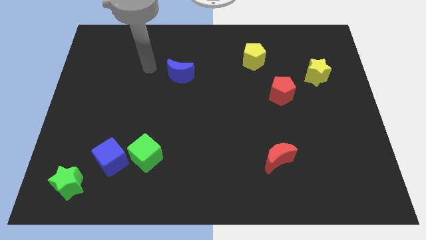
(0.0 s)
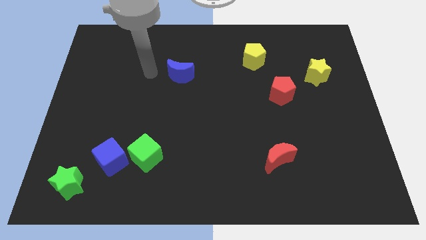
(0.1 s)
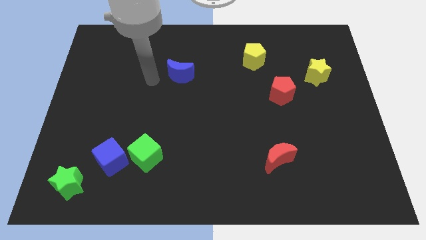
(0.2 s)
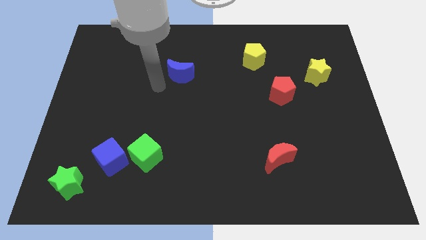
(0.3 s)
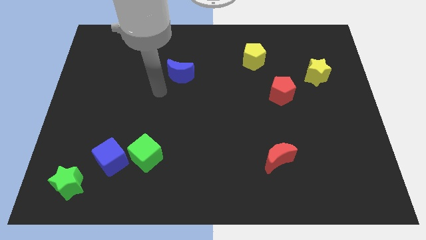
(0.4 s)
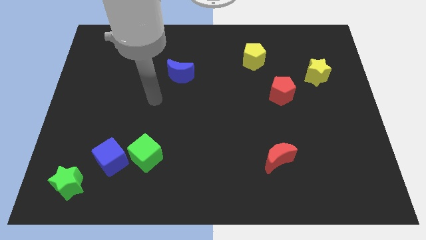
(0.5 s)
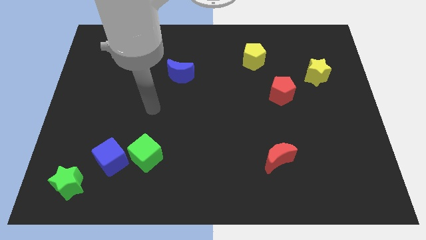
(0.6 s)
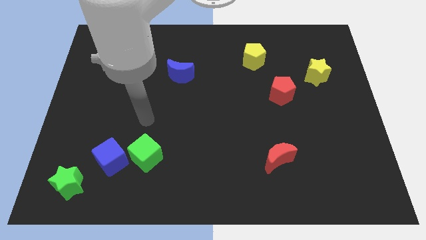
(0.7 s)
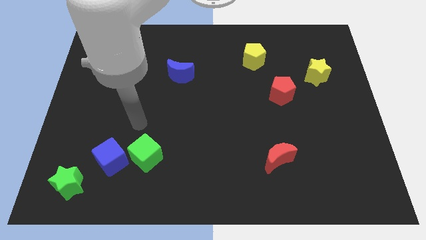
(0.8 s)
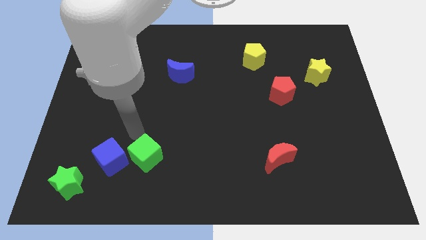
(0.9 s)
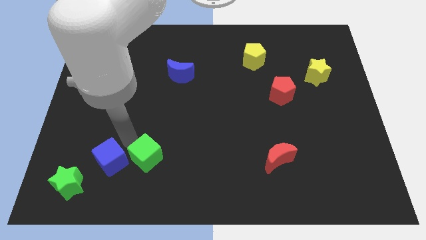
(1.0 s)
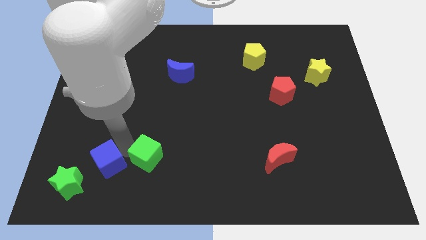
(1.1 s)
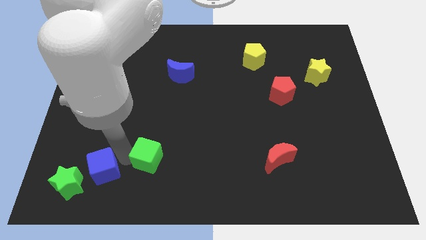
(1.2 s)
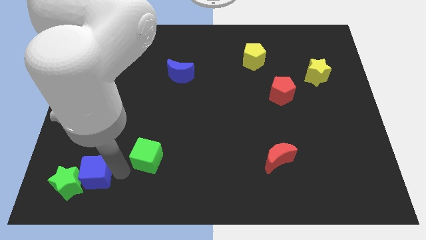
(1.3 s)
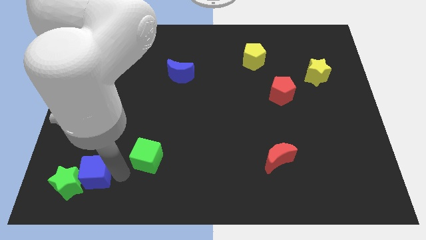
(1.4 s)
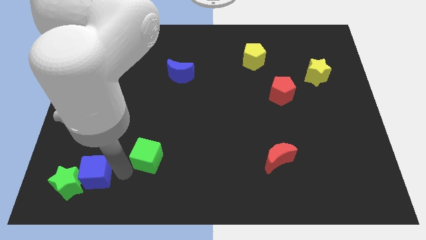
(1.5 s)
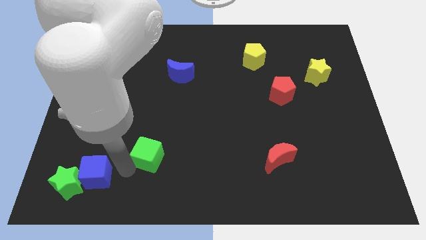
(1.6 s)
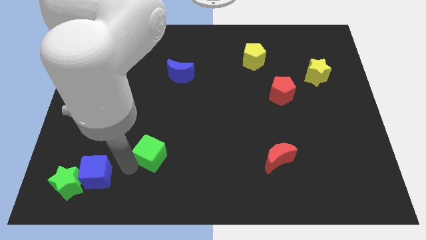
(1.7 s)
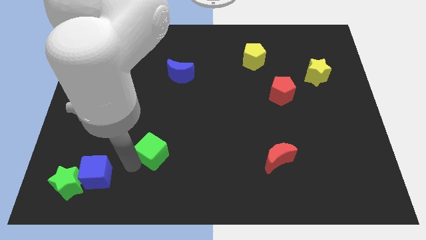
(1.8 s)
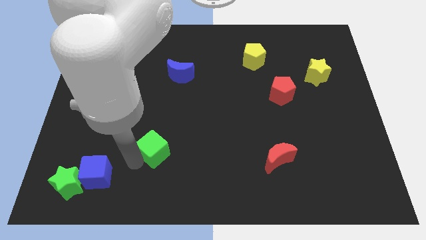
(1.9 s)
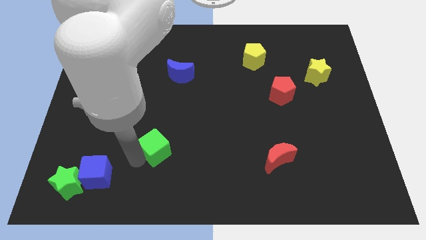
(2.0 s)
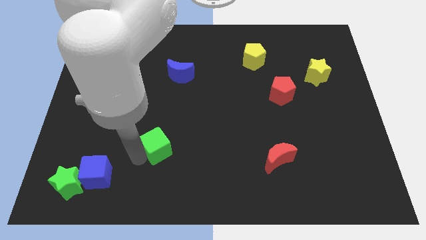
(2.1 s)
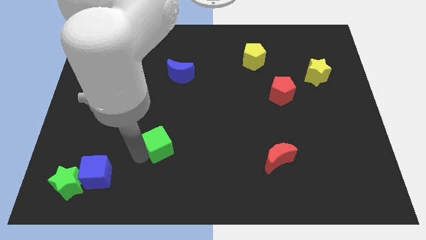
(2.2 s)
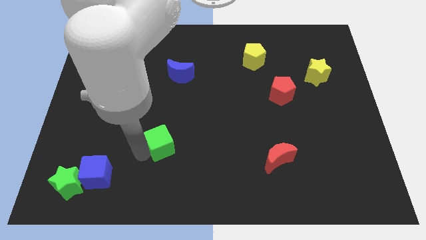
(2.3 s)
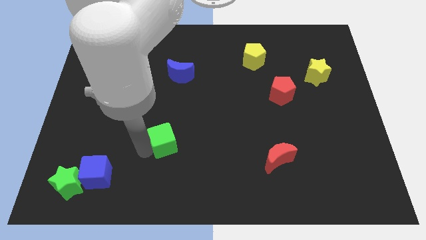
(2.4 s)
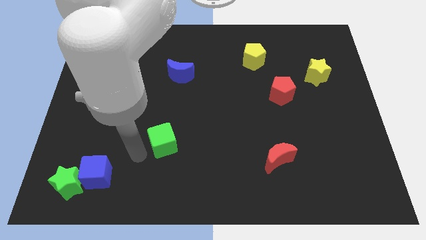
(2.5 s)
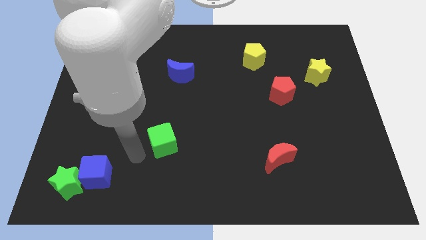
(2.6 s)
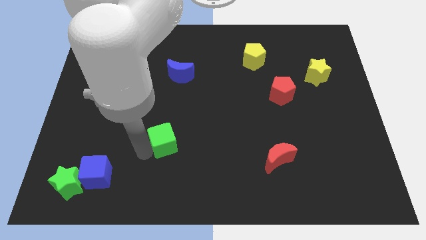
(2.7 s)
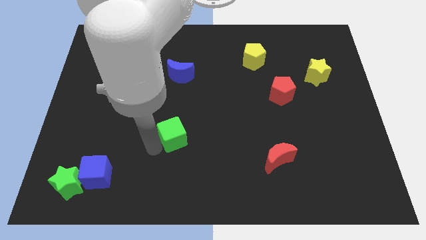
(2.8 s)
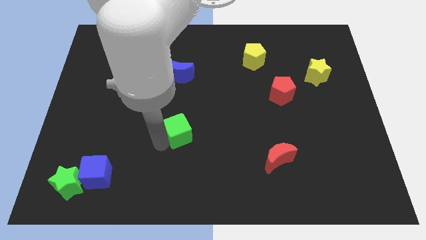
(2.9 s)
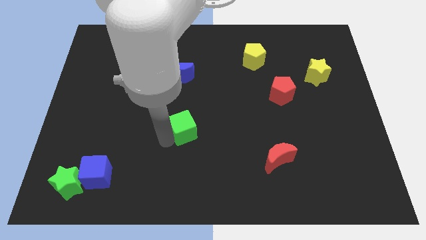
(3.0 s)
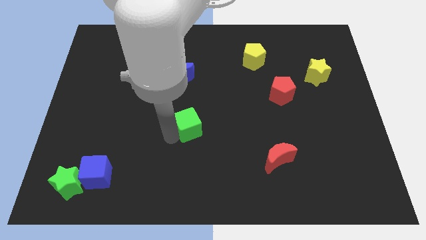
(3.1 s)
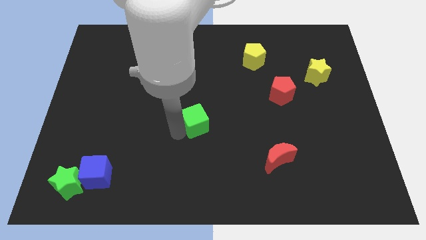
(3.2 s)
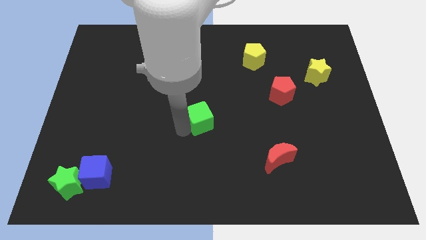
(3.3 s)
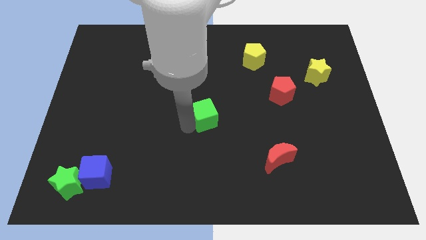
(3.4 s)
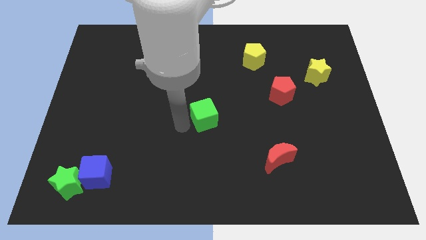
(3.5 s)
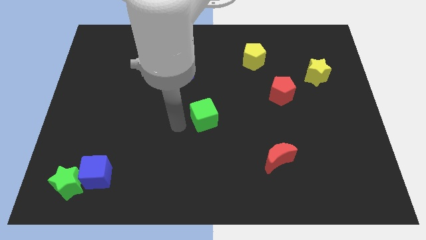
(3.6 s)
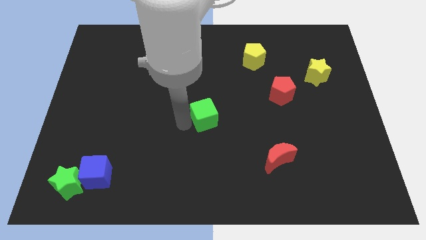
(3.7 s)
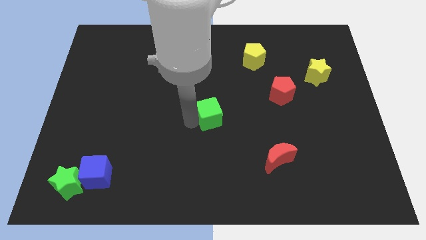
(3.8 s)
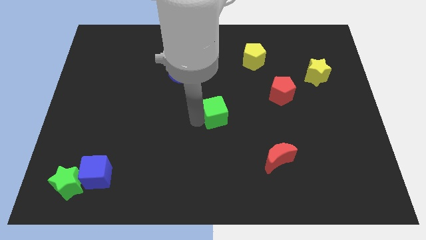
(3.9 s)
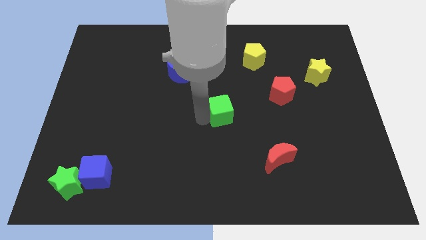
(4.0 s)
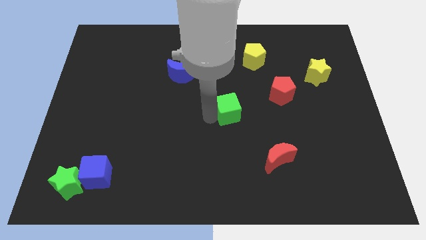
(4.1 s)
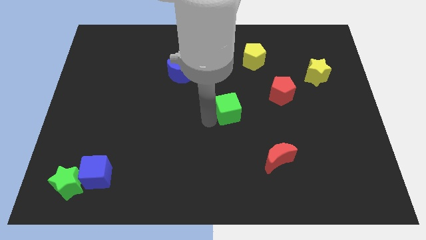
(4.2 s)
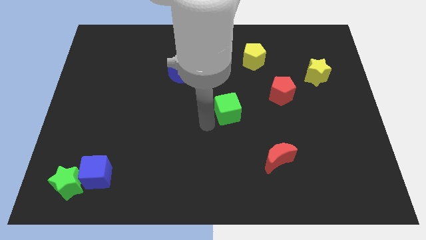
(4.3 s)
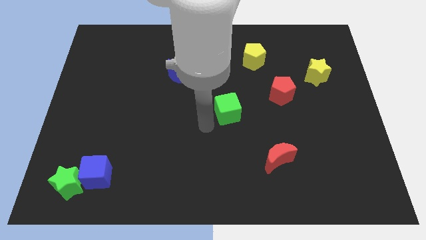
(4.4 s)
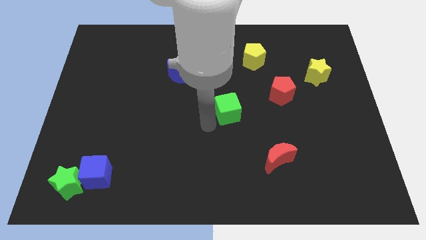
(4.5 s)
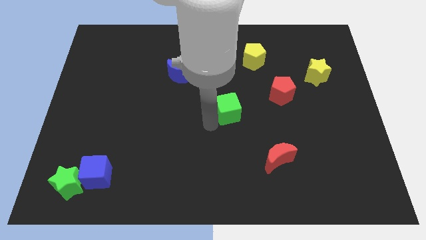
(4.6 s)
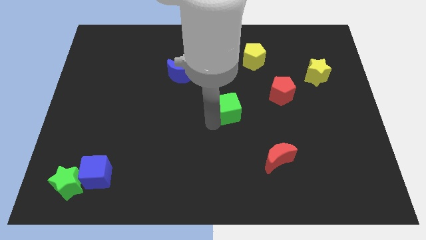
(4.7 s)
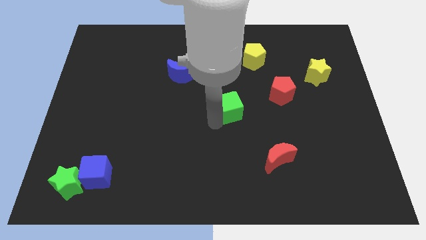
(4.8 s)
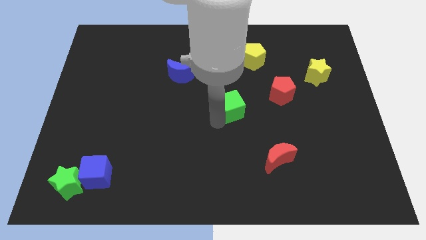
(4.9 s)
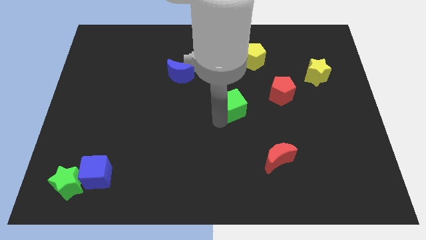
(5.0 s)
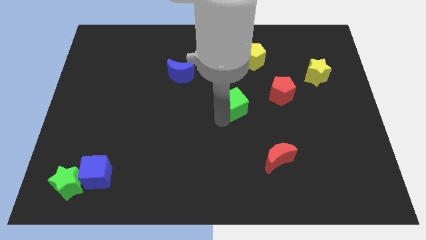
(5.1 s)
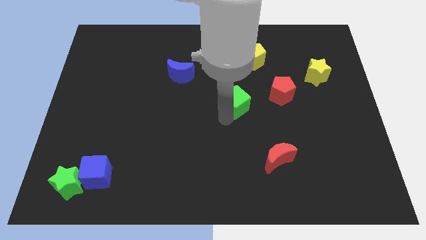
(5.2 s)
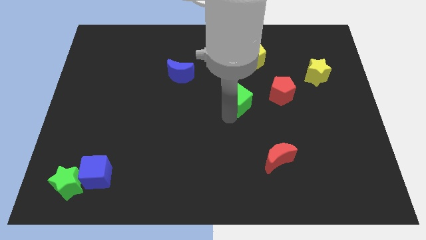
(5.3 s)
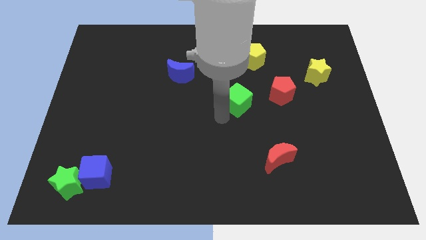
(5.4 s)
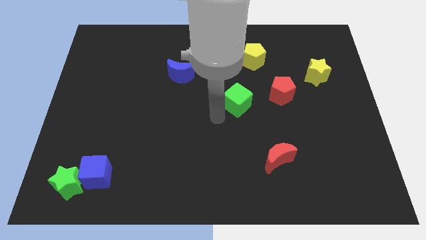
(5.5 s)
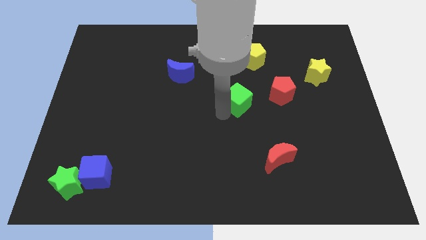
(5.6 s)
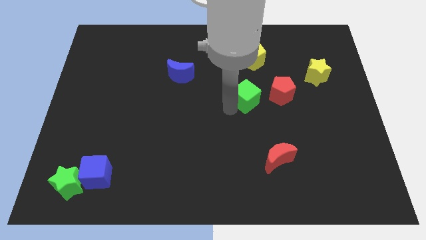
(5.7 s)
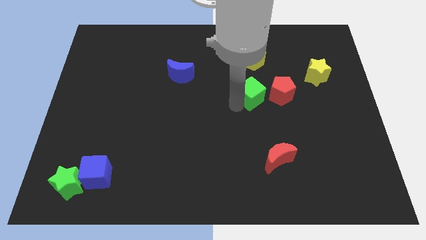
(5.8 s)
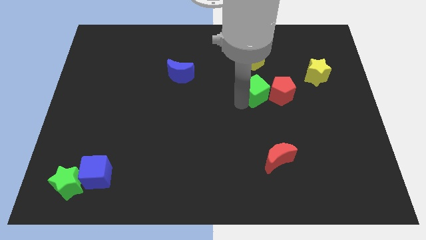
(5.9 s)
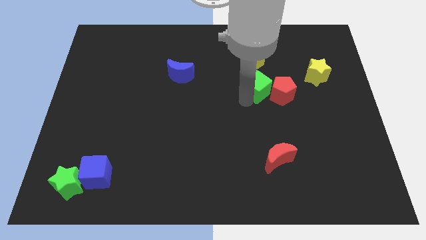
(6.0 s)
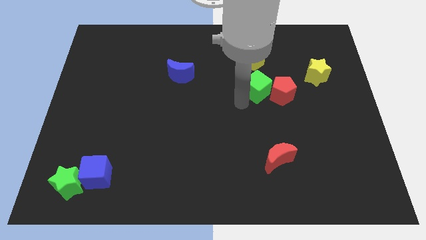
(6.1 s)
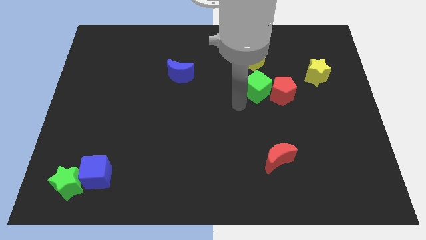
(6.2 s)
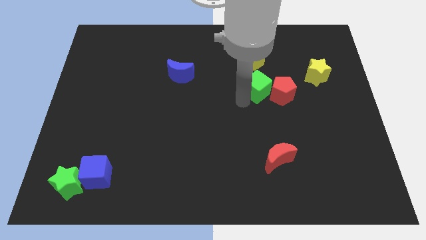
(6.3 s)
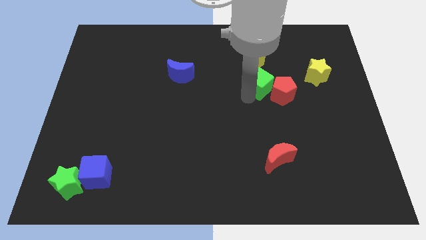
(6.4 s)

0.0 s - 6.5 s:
put the green cube to the left of the yellow star

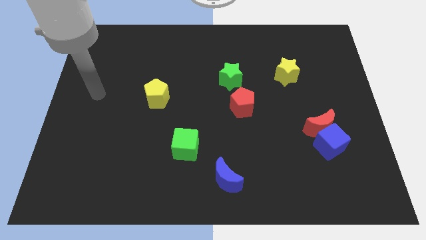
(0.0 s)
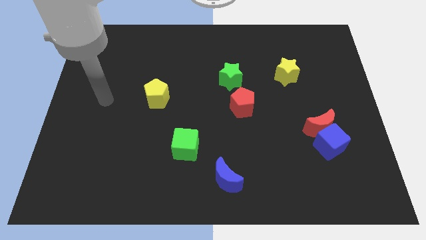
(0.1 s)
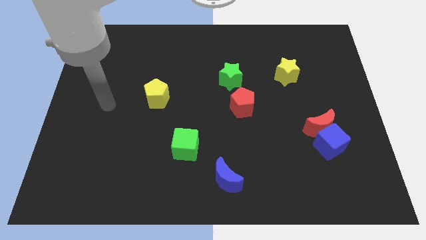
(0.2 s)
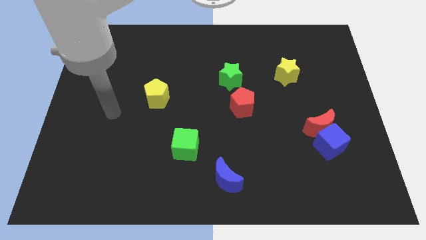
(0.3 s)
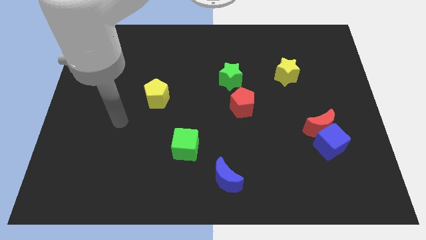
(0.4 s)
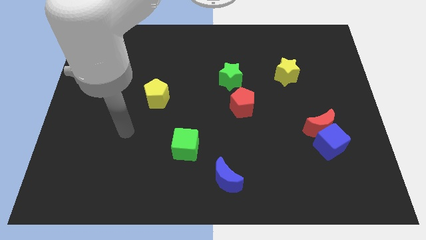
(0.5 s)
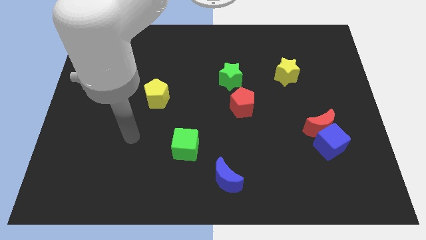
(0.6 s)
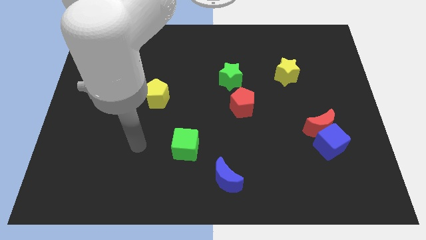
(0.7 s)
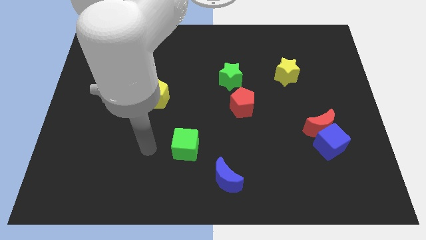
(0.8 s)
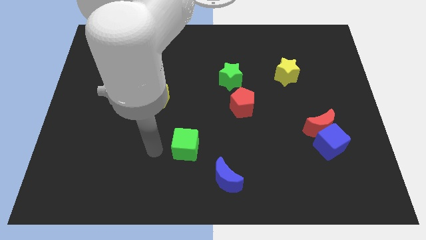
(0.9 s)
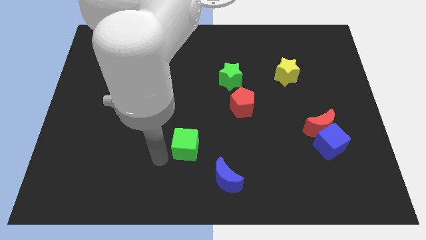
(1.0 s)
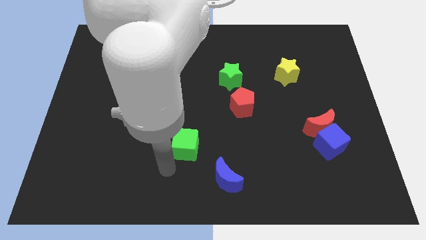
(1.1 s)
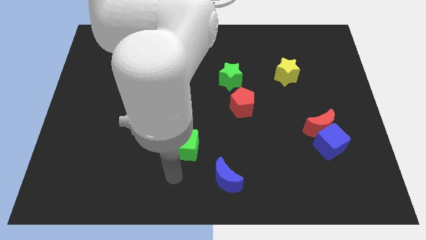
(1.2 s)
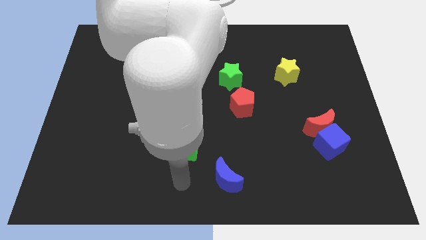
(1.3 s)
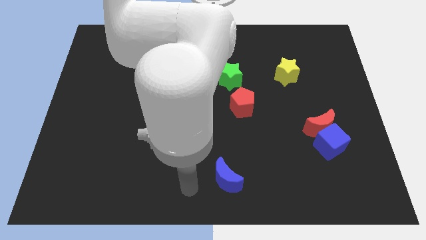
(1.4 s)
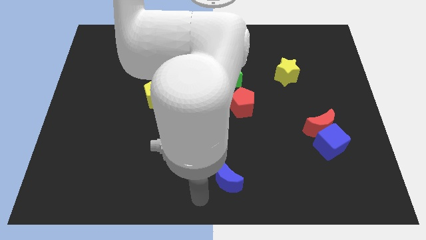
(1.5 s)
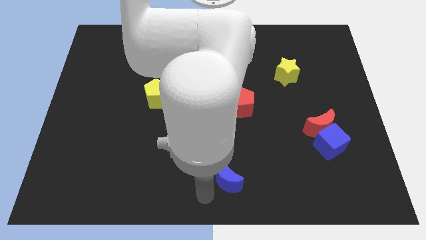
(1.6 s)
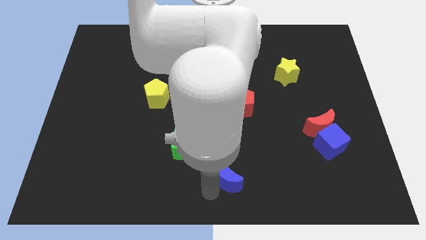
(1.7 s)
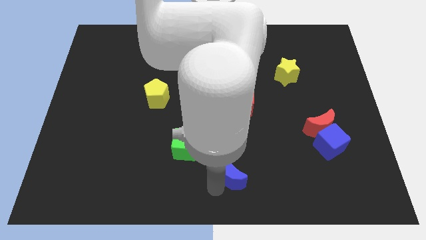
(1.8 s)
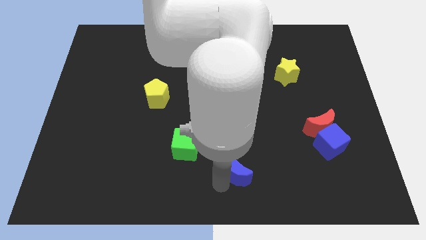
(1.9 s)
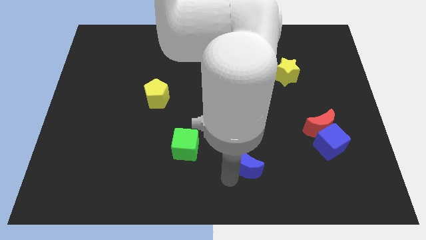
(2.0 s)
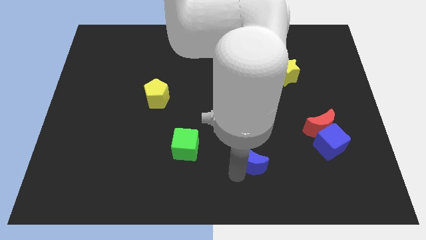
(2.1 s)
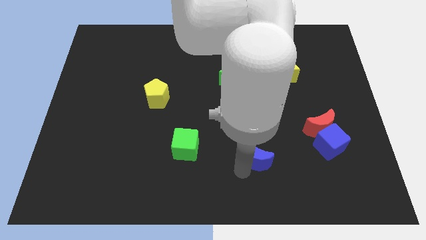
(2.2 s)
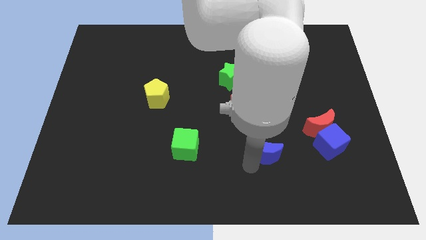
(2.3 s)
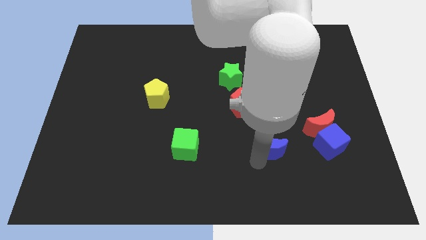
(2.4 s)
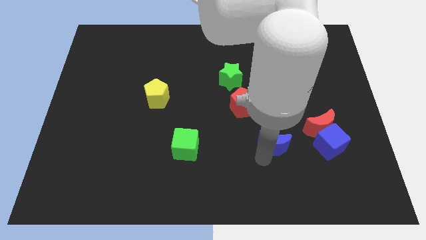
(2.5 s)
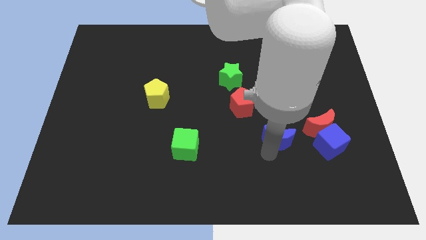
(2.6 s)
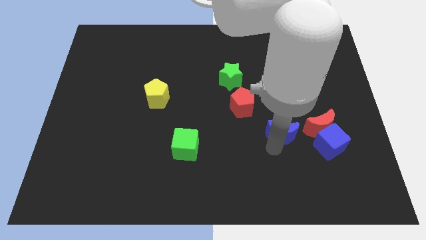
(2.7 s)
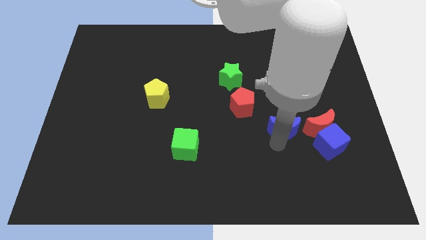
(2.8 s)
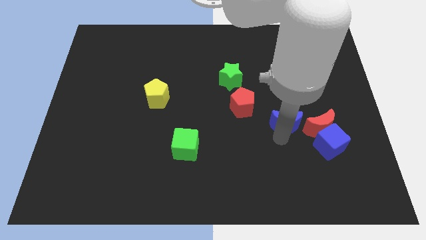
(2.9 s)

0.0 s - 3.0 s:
push the blue moon below the yellow star
